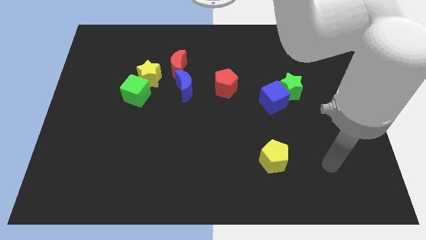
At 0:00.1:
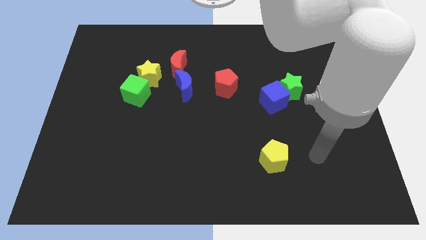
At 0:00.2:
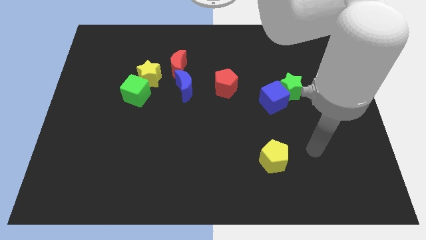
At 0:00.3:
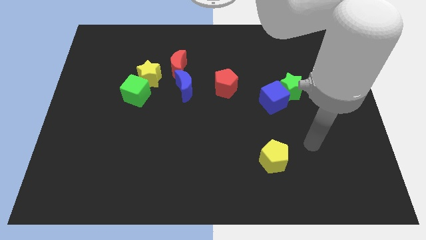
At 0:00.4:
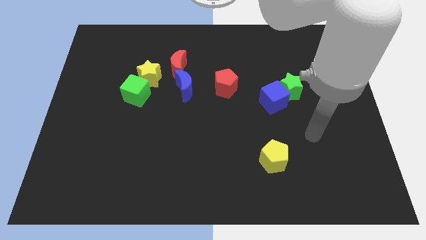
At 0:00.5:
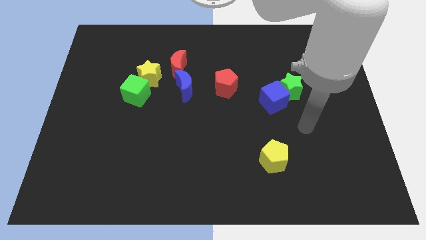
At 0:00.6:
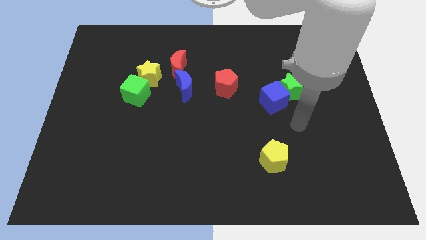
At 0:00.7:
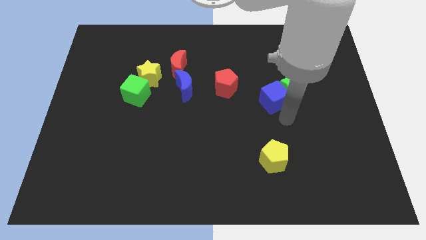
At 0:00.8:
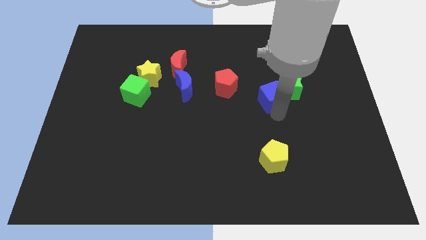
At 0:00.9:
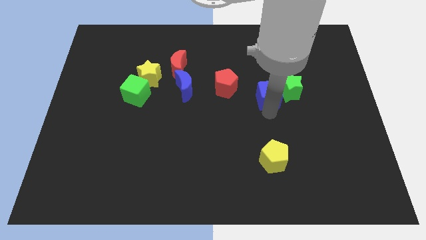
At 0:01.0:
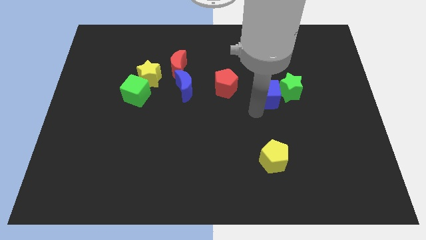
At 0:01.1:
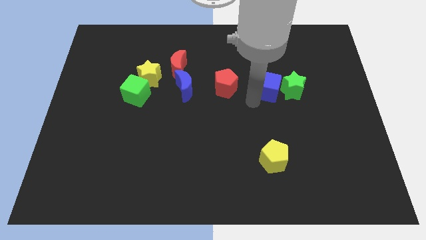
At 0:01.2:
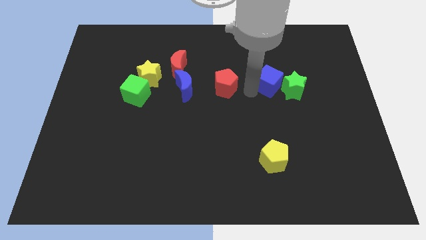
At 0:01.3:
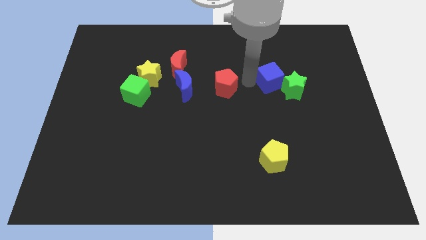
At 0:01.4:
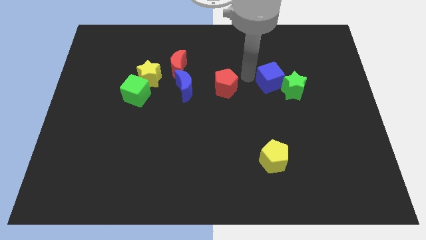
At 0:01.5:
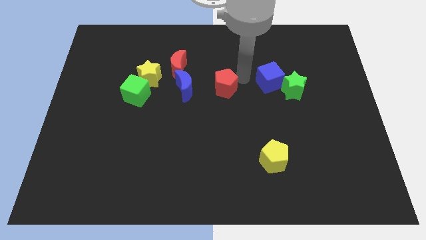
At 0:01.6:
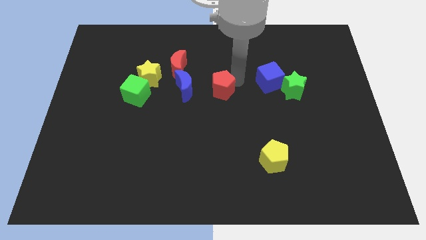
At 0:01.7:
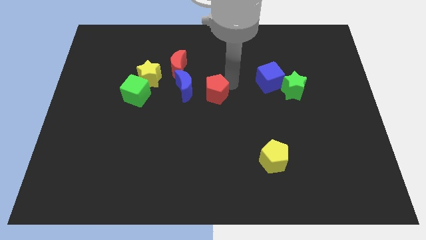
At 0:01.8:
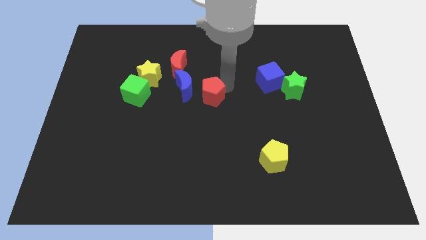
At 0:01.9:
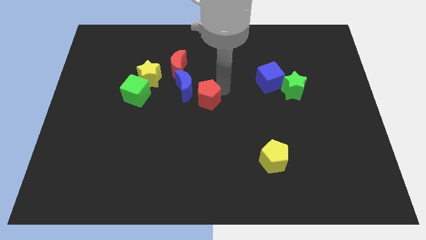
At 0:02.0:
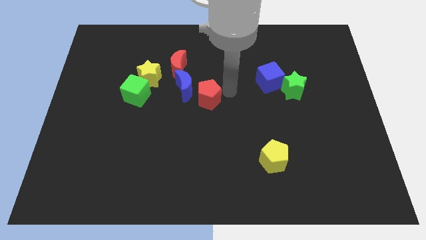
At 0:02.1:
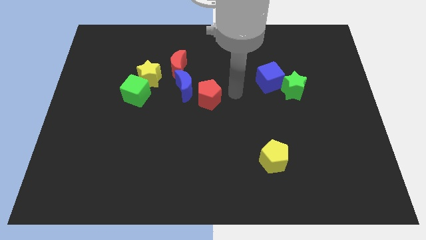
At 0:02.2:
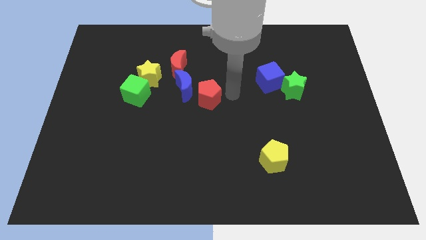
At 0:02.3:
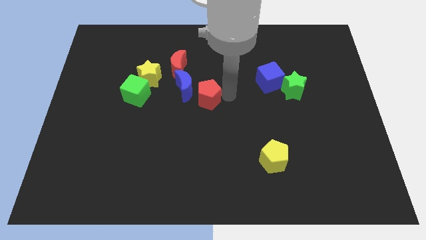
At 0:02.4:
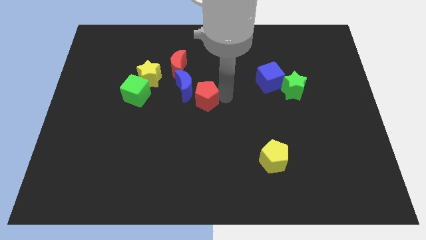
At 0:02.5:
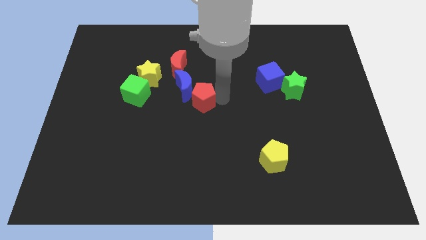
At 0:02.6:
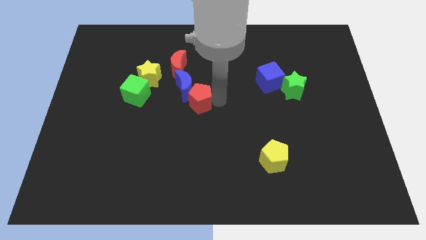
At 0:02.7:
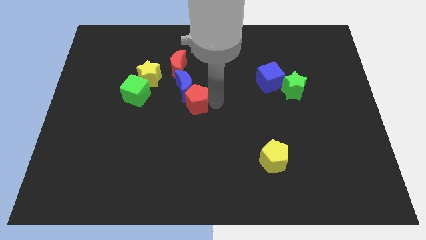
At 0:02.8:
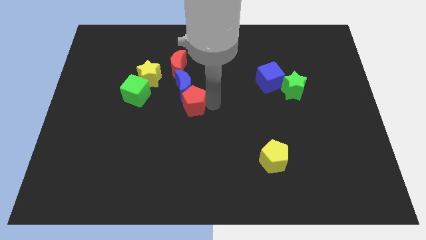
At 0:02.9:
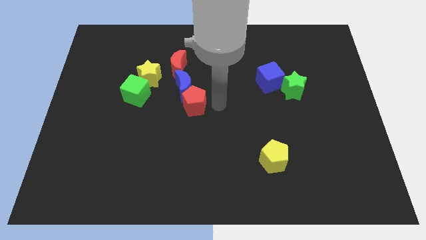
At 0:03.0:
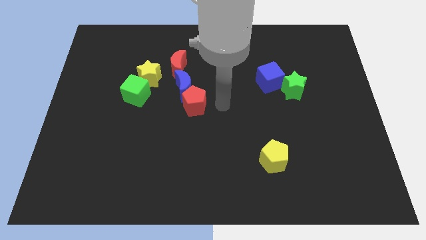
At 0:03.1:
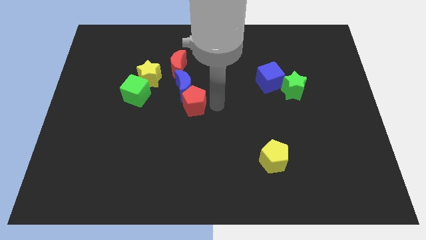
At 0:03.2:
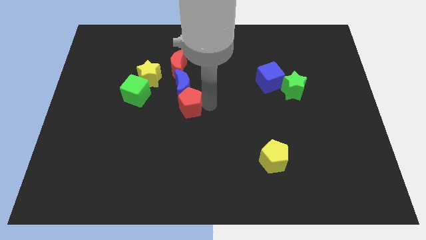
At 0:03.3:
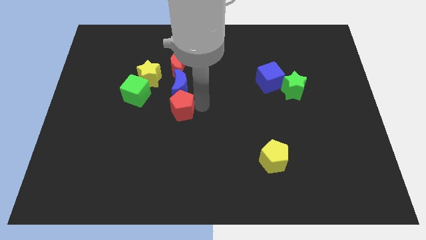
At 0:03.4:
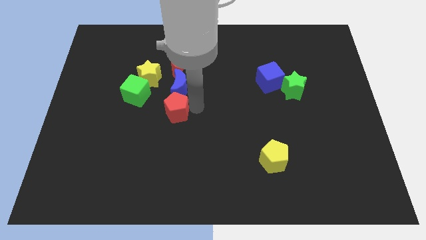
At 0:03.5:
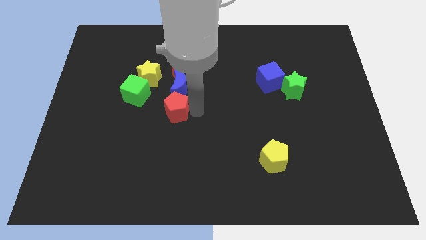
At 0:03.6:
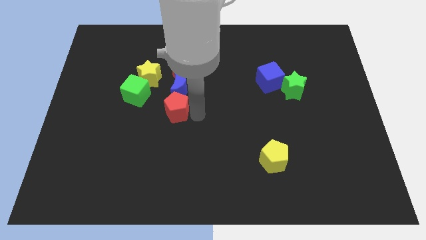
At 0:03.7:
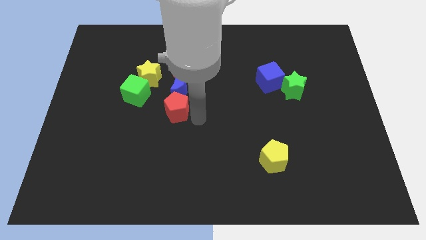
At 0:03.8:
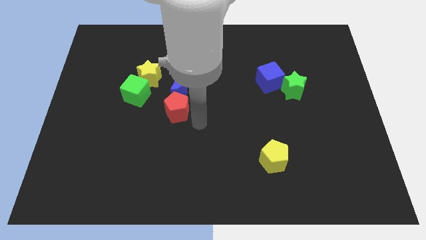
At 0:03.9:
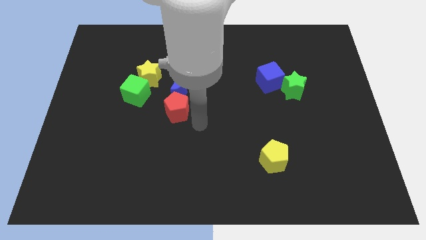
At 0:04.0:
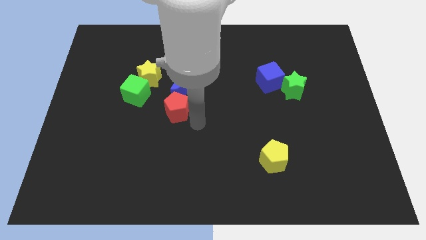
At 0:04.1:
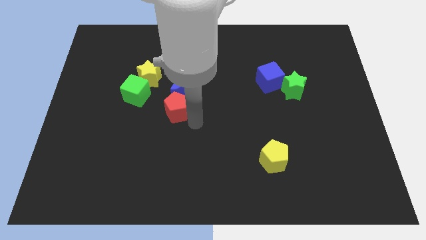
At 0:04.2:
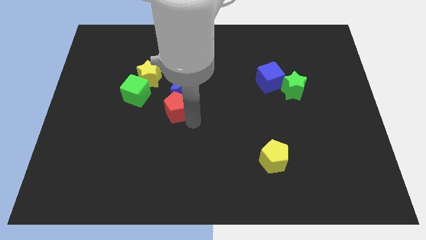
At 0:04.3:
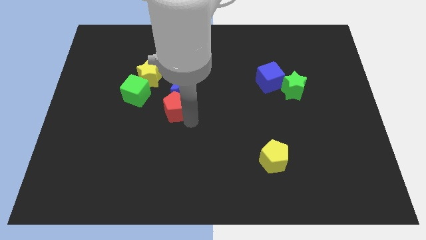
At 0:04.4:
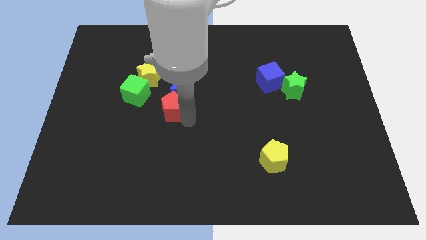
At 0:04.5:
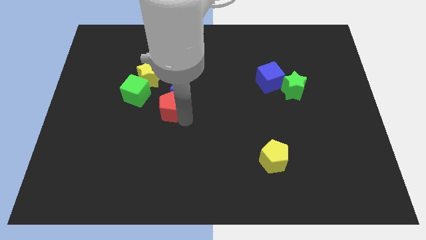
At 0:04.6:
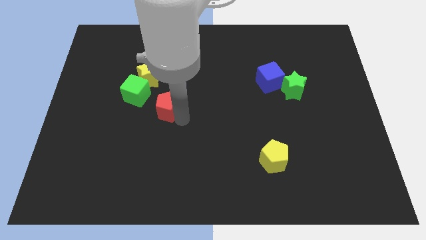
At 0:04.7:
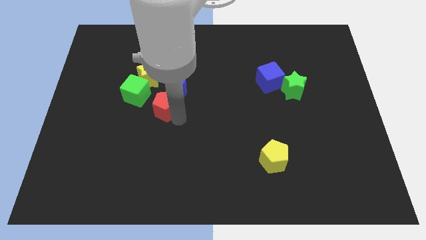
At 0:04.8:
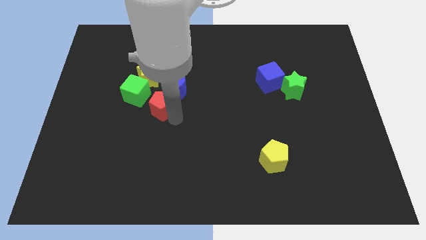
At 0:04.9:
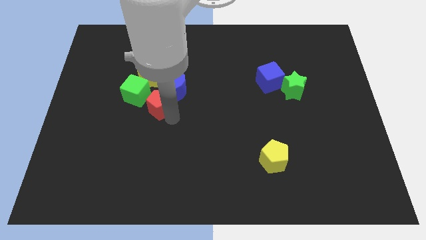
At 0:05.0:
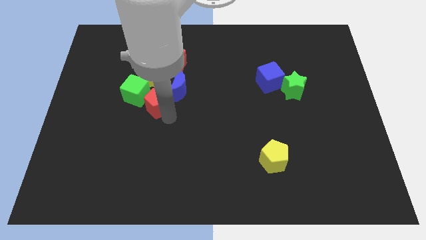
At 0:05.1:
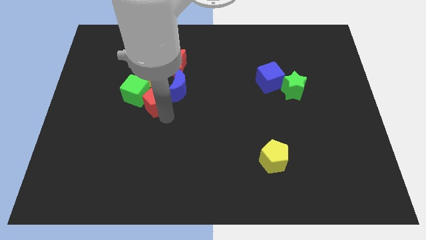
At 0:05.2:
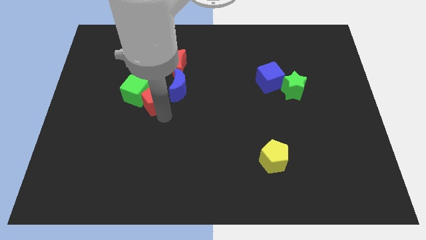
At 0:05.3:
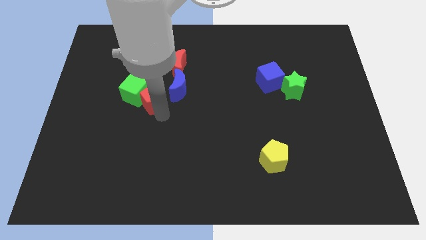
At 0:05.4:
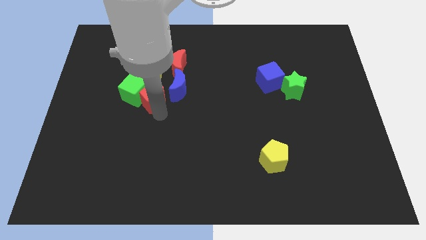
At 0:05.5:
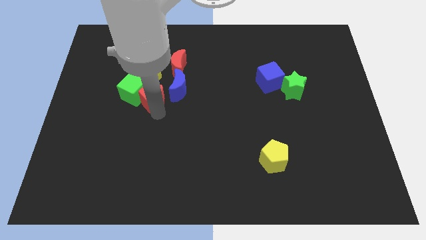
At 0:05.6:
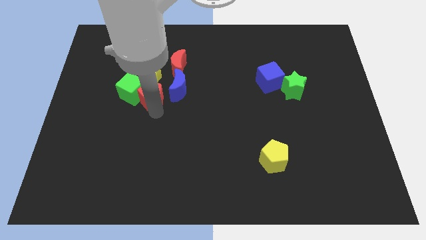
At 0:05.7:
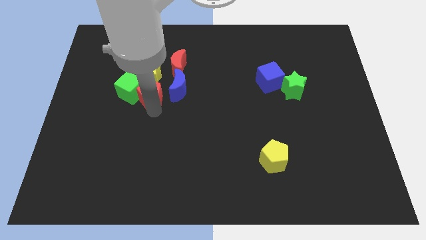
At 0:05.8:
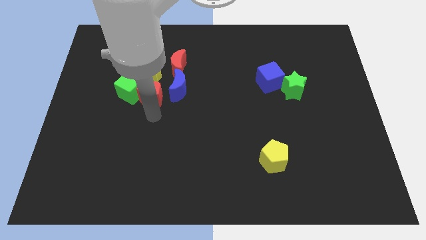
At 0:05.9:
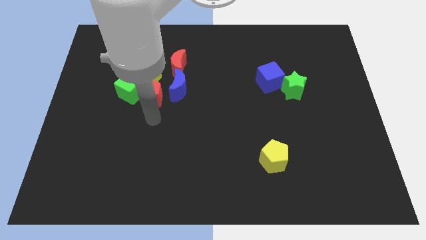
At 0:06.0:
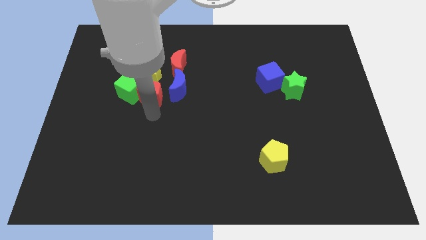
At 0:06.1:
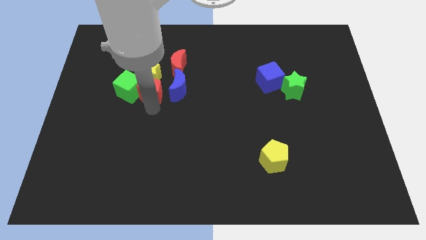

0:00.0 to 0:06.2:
put the red pentagon towards the yellow star
